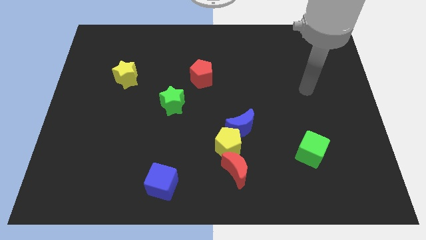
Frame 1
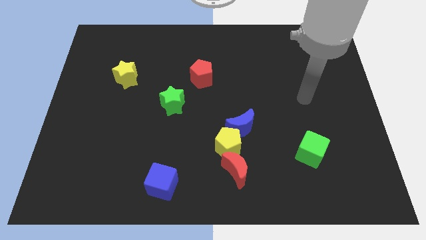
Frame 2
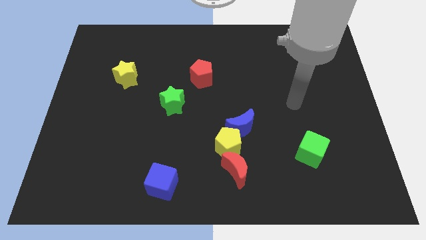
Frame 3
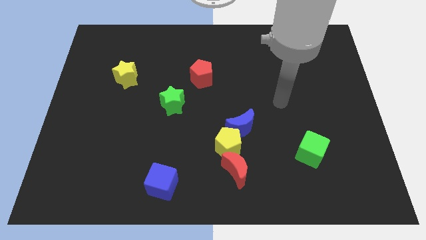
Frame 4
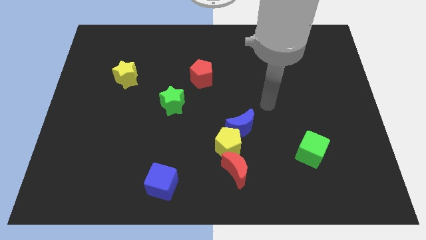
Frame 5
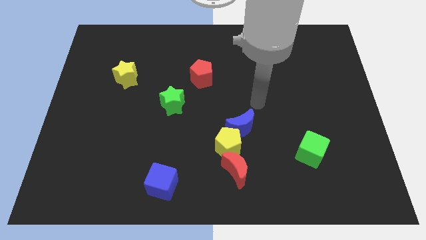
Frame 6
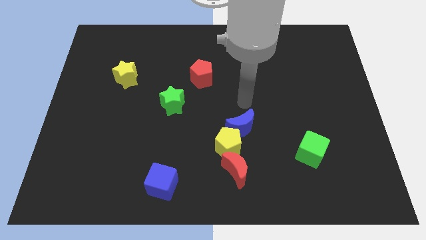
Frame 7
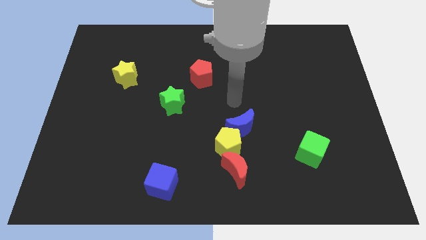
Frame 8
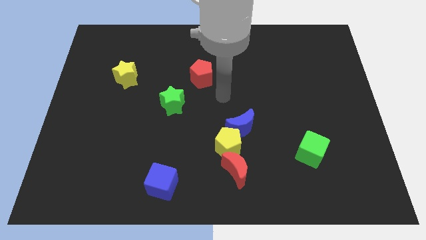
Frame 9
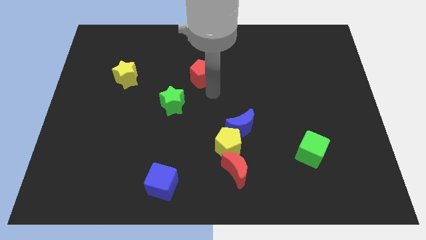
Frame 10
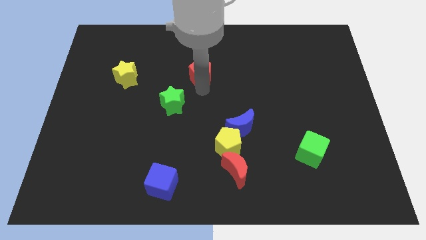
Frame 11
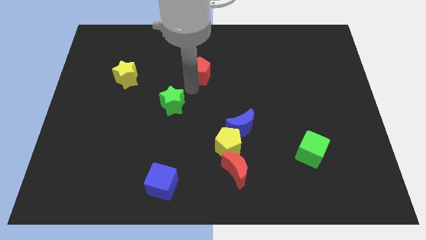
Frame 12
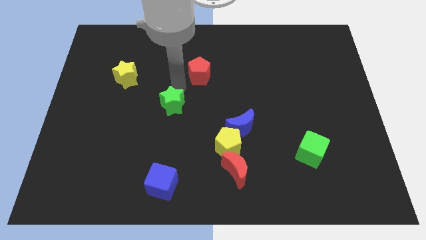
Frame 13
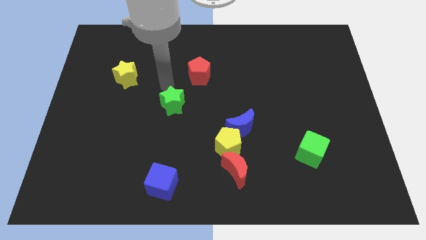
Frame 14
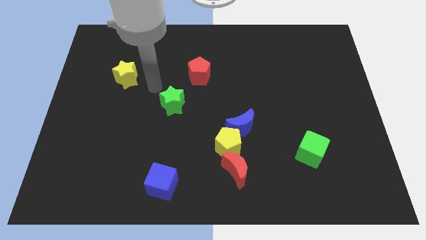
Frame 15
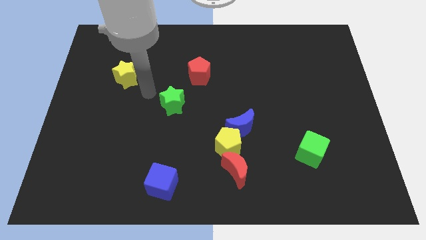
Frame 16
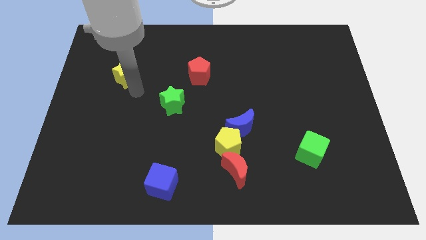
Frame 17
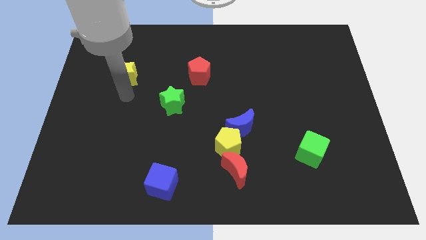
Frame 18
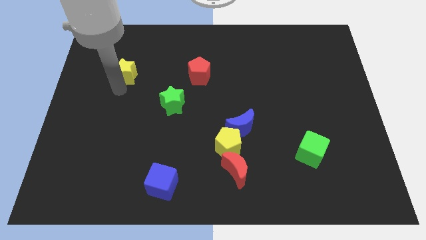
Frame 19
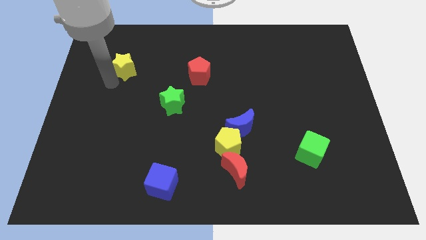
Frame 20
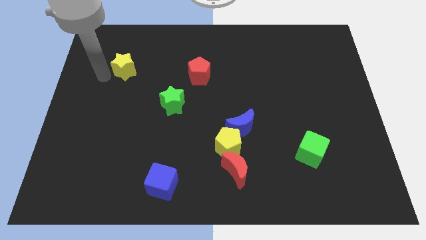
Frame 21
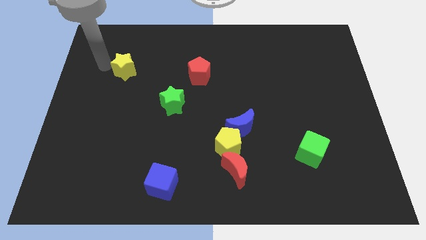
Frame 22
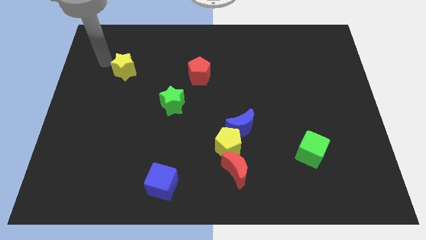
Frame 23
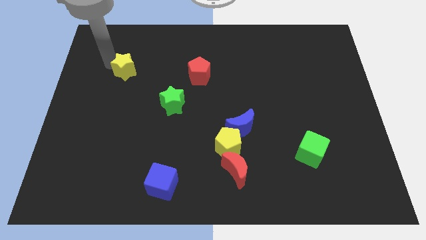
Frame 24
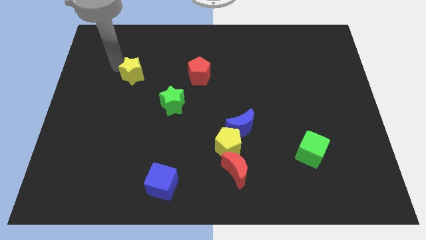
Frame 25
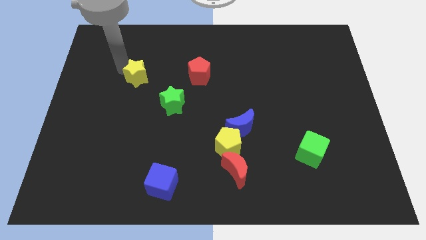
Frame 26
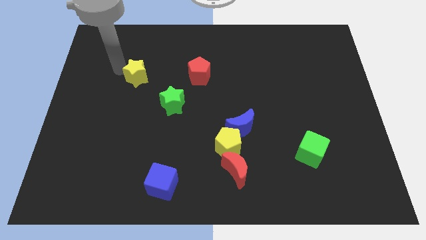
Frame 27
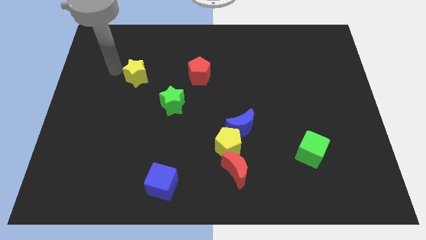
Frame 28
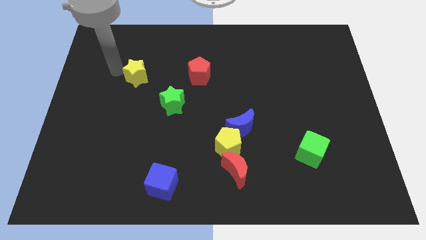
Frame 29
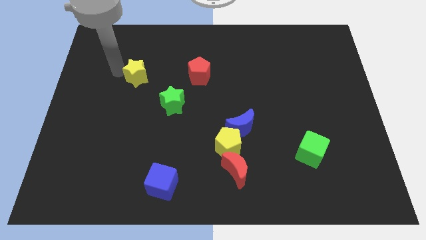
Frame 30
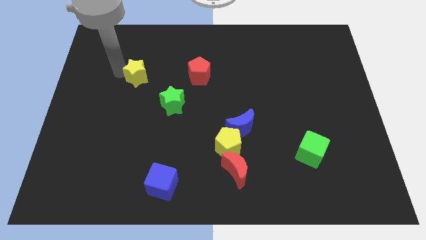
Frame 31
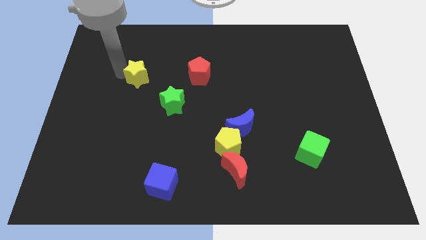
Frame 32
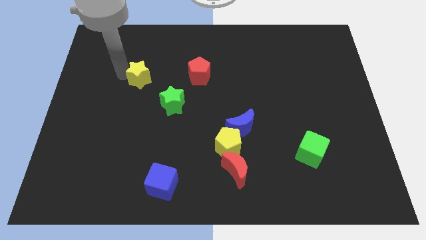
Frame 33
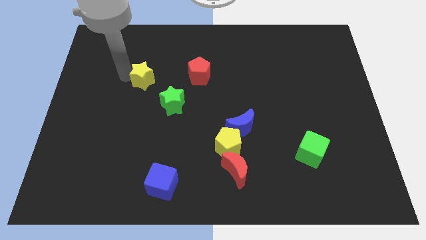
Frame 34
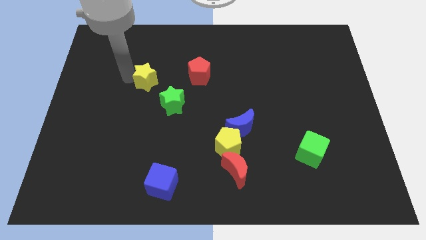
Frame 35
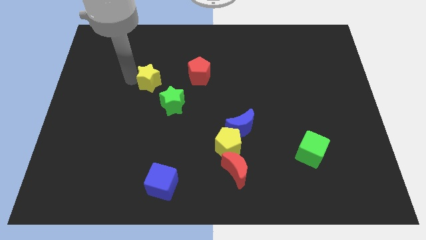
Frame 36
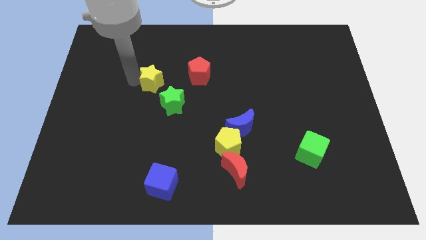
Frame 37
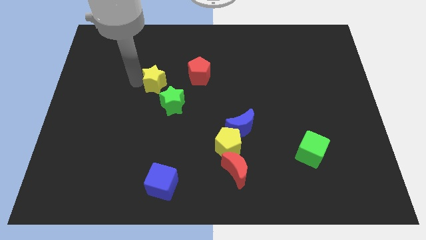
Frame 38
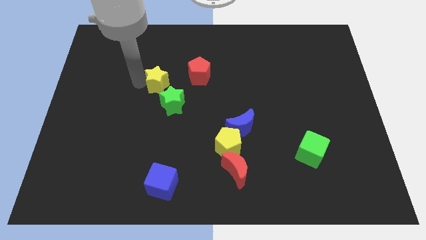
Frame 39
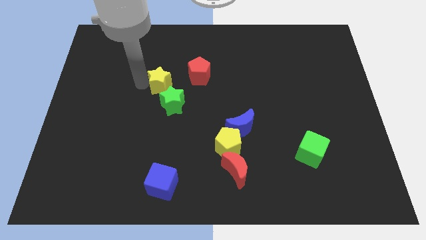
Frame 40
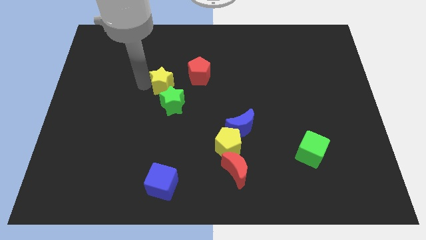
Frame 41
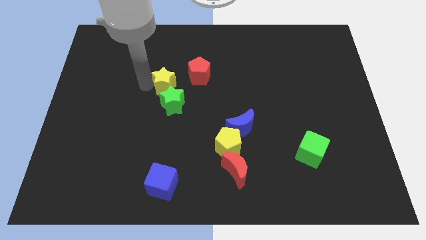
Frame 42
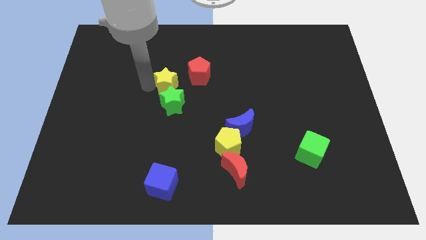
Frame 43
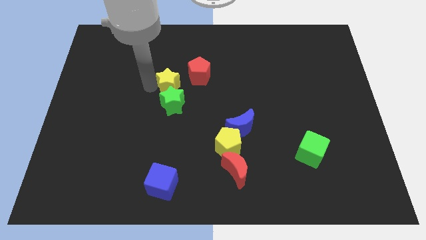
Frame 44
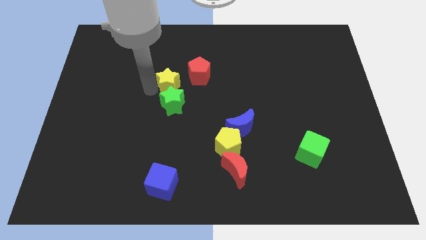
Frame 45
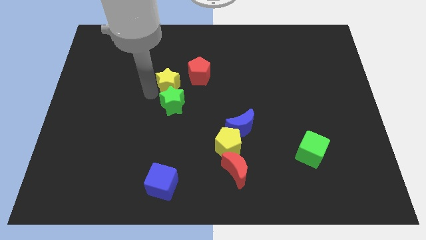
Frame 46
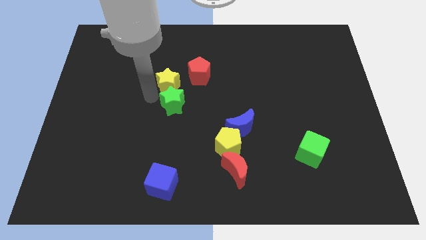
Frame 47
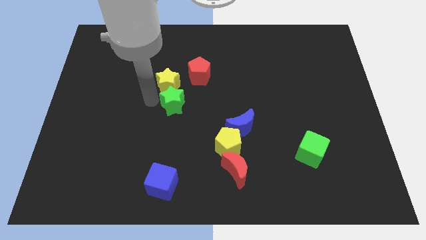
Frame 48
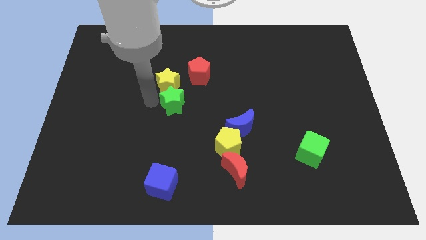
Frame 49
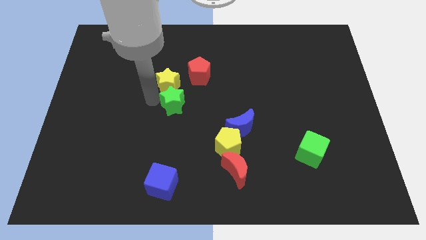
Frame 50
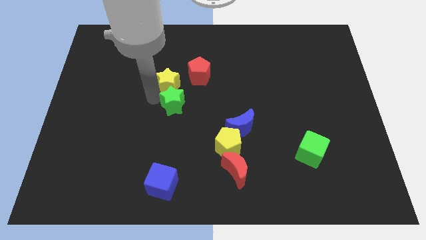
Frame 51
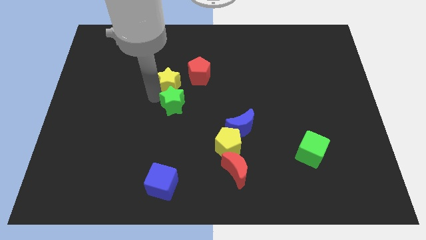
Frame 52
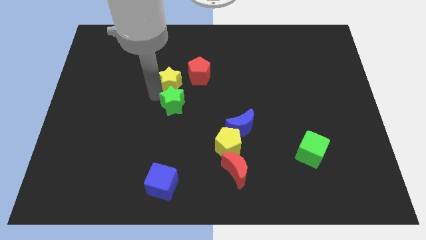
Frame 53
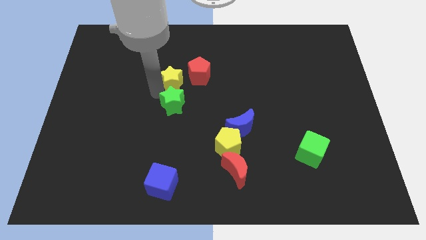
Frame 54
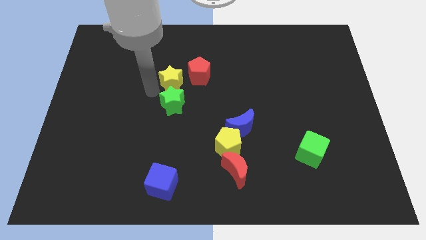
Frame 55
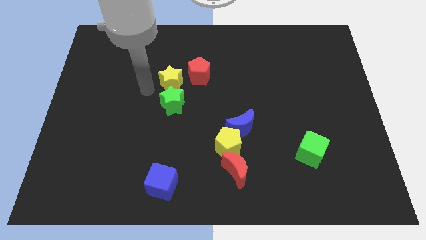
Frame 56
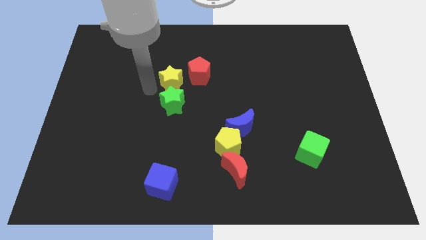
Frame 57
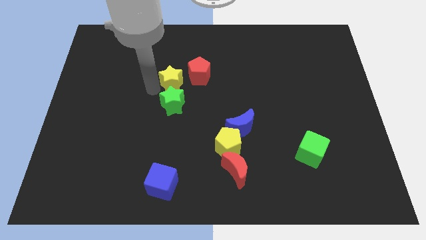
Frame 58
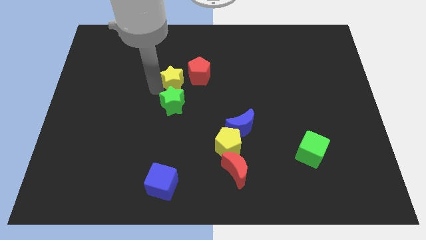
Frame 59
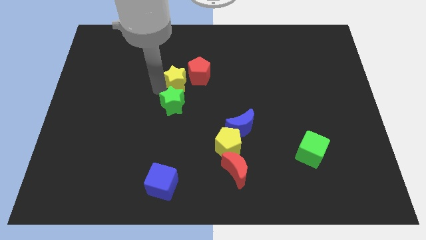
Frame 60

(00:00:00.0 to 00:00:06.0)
put the yellow star close to the red pentagon

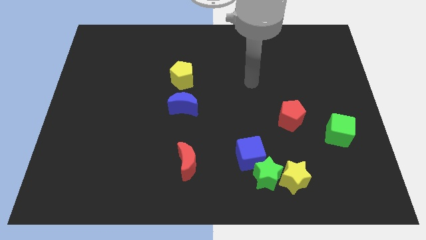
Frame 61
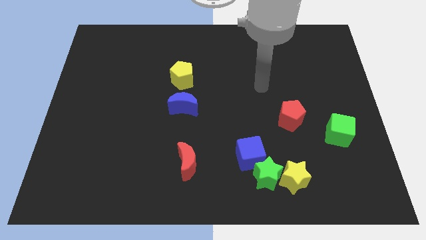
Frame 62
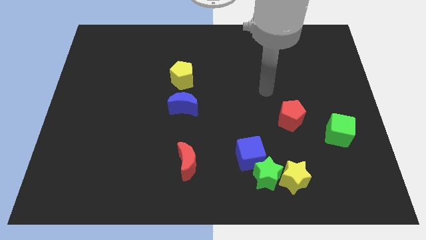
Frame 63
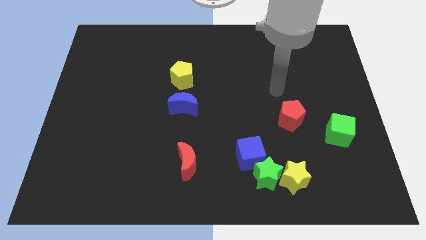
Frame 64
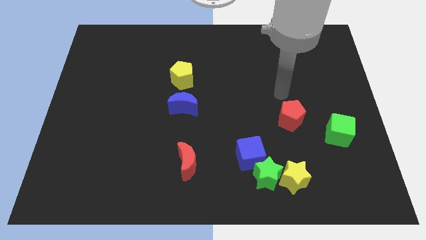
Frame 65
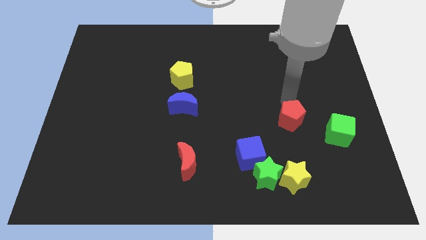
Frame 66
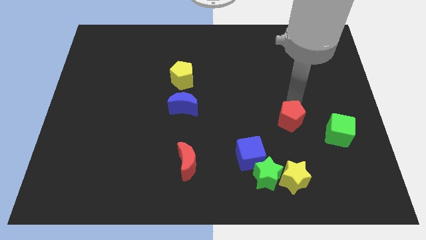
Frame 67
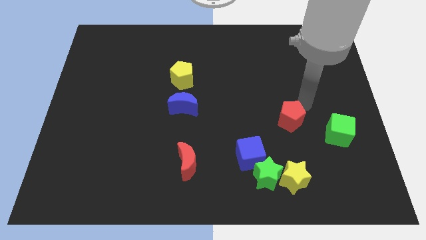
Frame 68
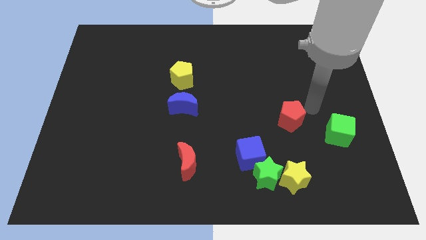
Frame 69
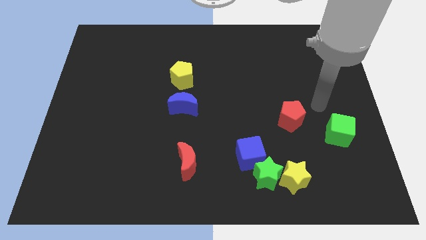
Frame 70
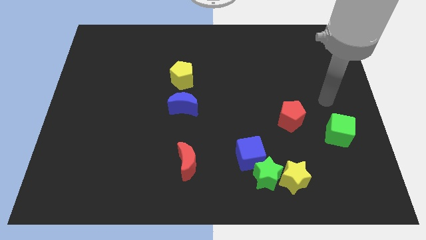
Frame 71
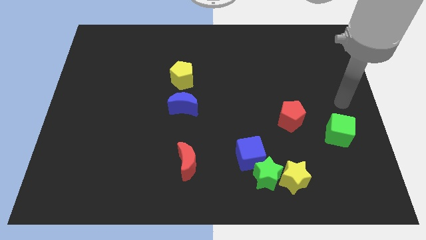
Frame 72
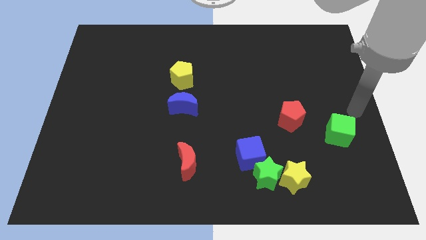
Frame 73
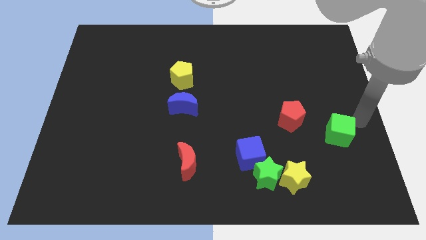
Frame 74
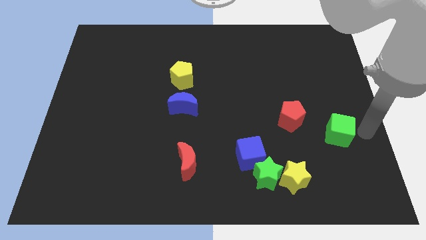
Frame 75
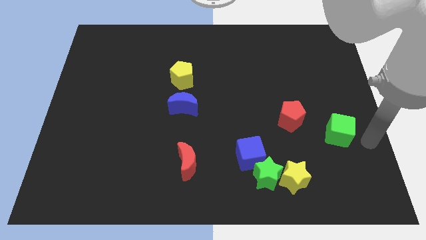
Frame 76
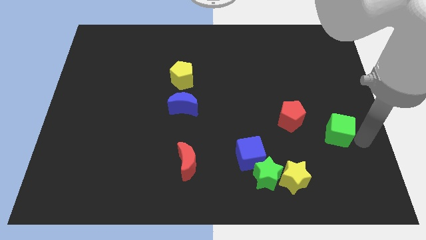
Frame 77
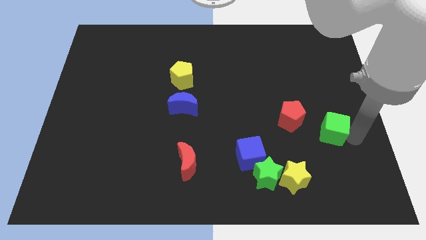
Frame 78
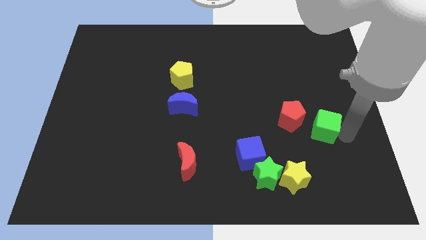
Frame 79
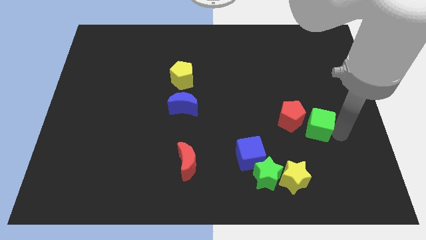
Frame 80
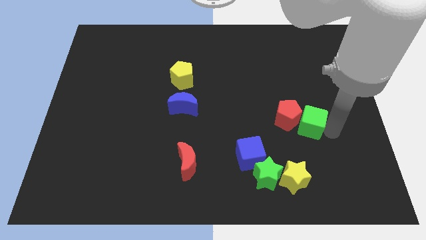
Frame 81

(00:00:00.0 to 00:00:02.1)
push the green cube next to the red pentagon
